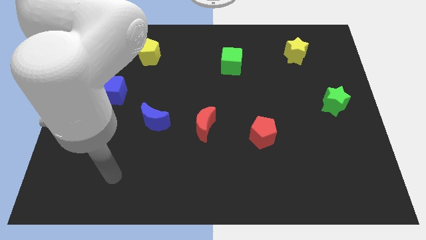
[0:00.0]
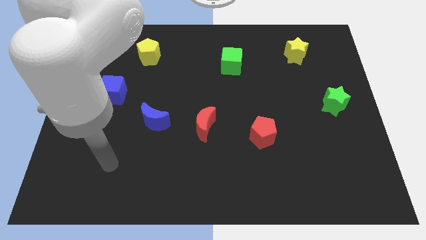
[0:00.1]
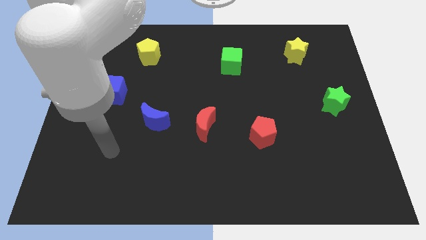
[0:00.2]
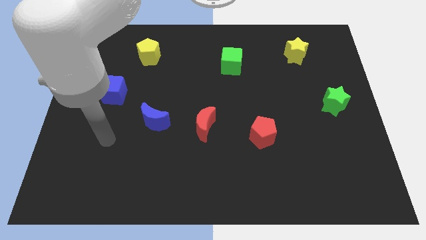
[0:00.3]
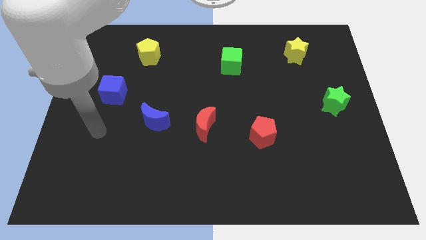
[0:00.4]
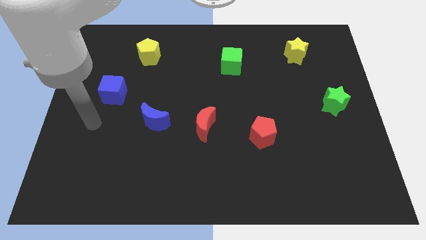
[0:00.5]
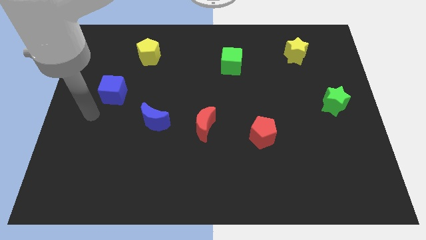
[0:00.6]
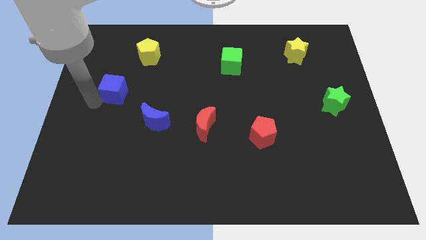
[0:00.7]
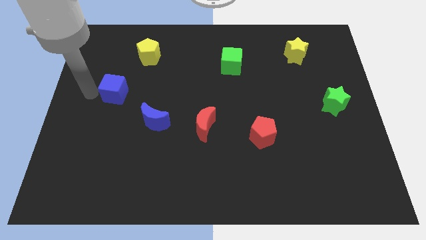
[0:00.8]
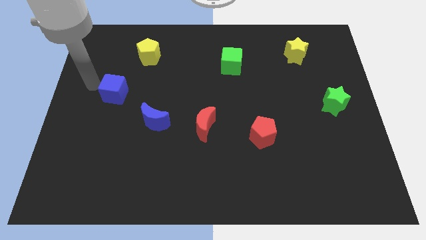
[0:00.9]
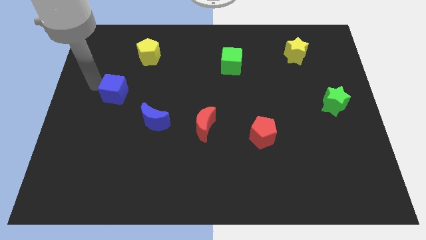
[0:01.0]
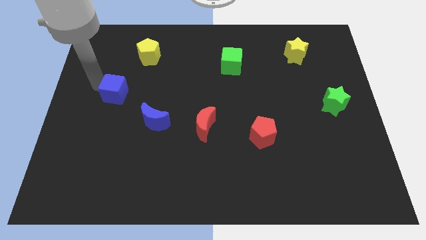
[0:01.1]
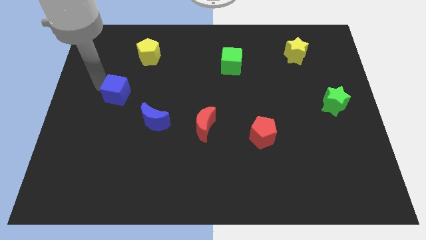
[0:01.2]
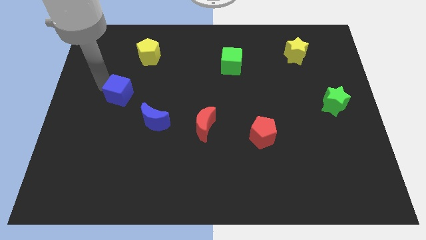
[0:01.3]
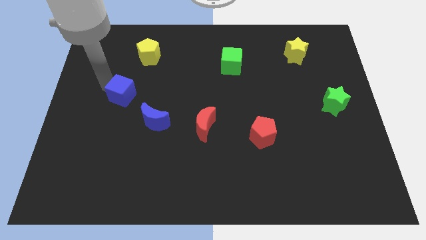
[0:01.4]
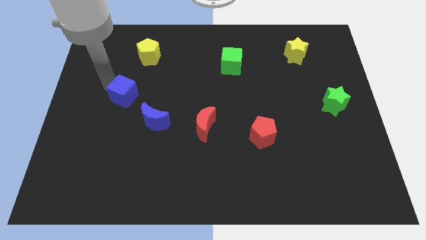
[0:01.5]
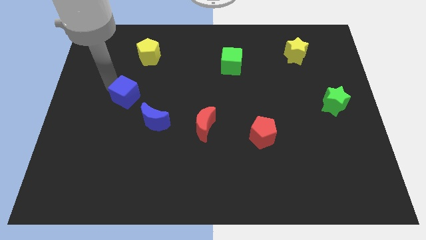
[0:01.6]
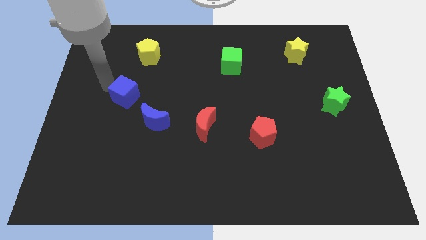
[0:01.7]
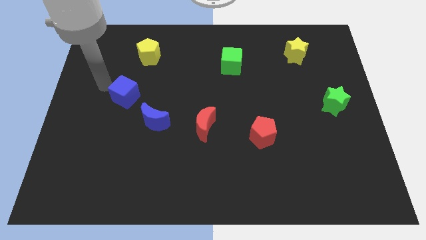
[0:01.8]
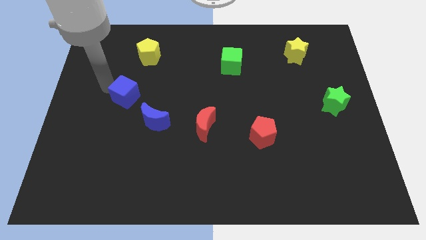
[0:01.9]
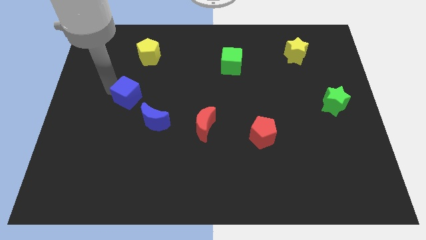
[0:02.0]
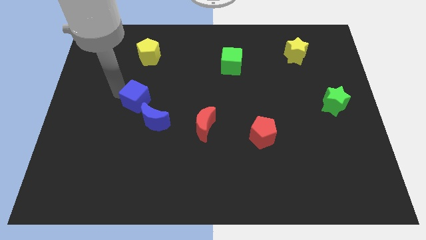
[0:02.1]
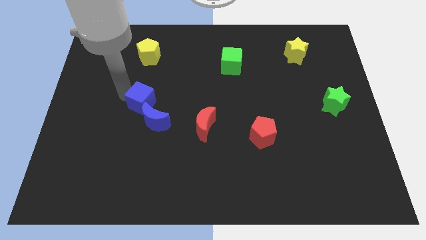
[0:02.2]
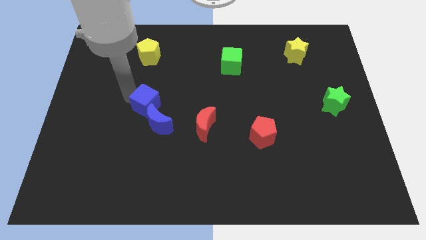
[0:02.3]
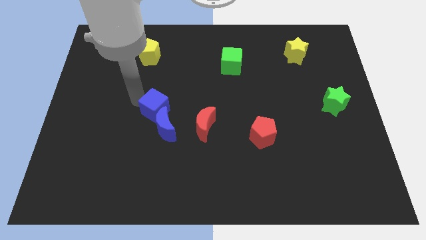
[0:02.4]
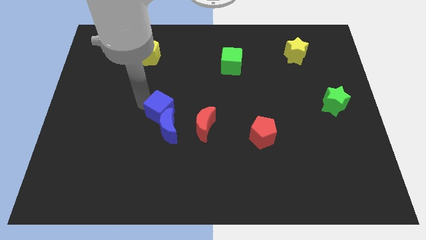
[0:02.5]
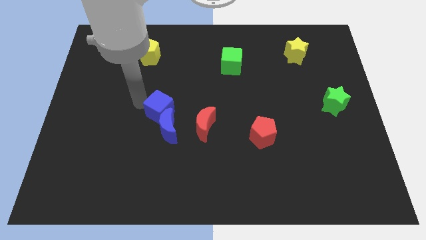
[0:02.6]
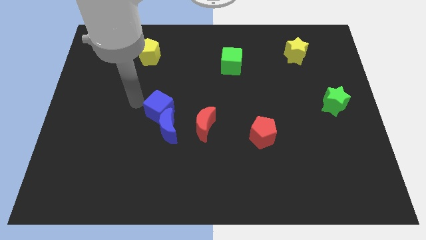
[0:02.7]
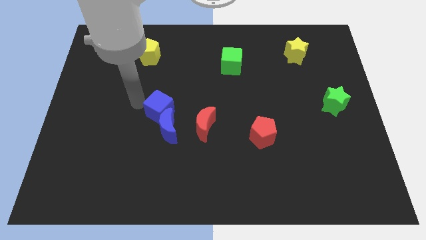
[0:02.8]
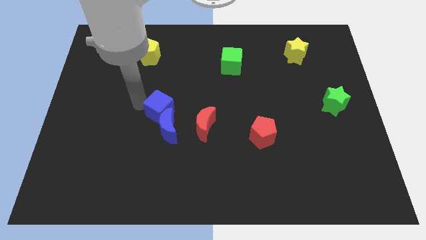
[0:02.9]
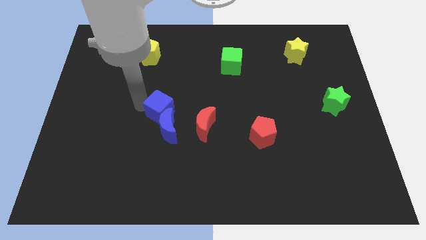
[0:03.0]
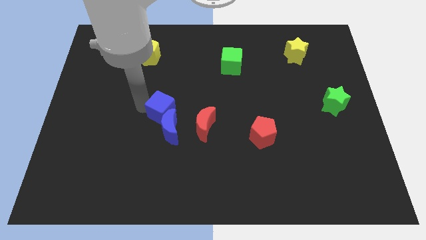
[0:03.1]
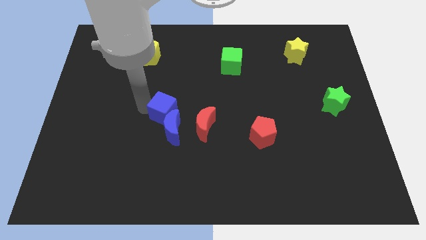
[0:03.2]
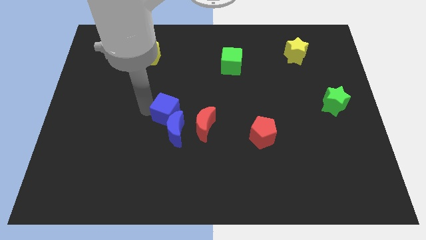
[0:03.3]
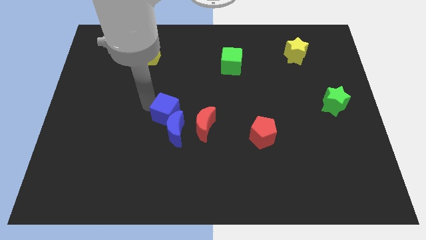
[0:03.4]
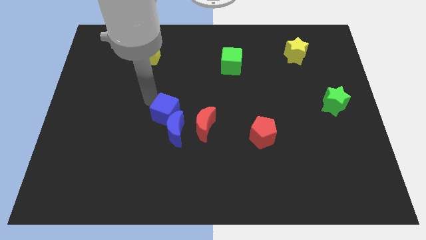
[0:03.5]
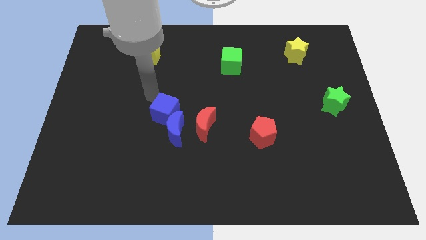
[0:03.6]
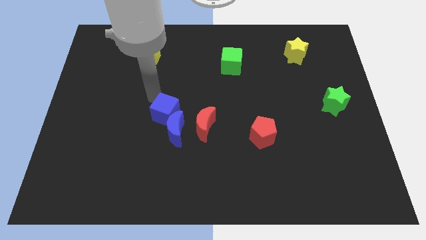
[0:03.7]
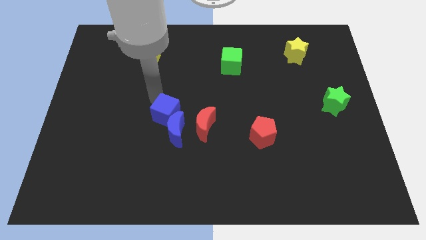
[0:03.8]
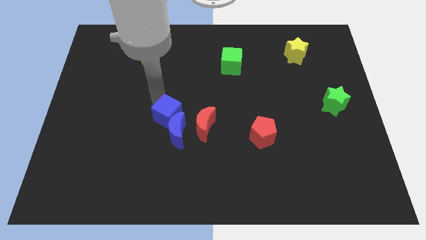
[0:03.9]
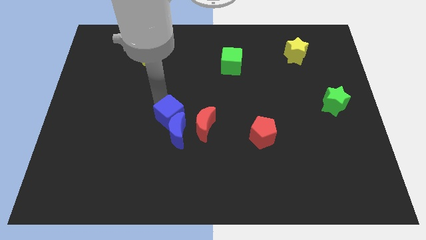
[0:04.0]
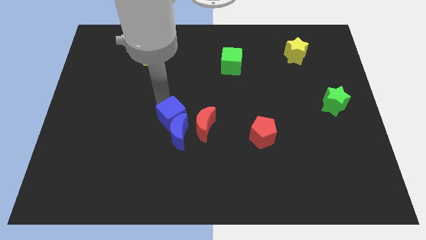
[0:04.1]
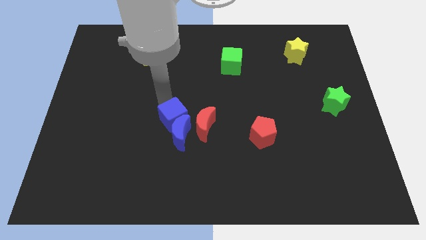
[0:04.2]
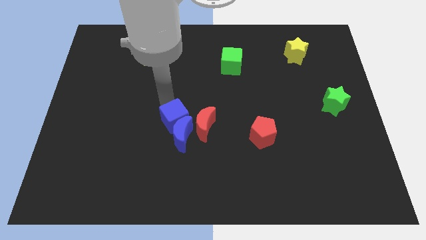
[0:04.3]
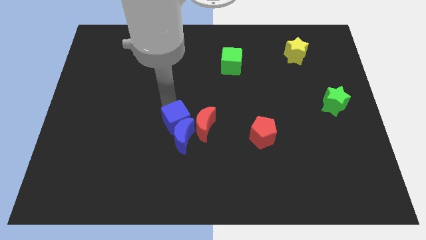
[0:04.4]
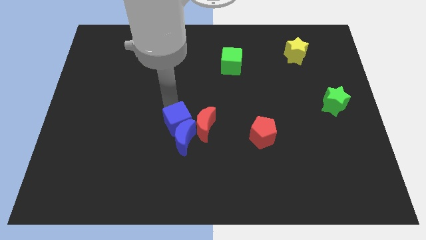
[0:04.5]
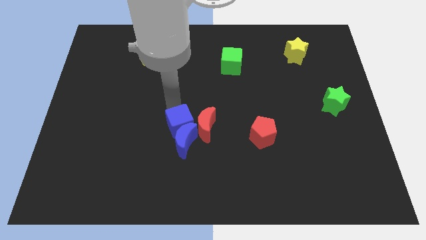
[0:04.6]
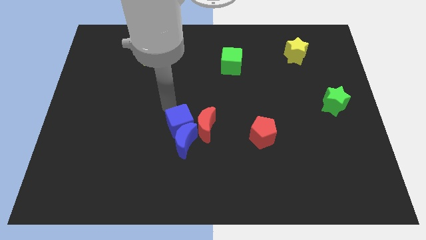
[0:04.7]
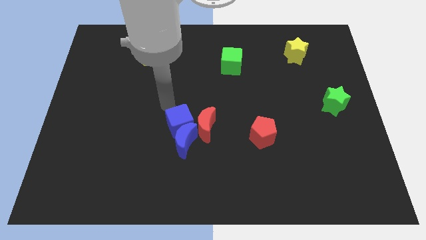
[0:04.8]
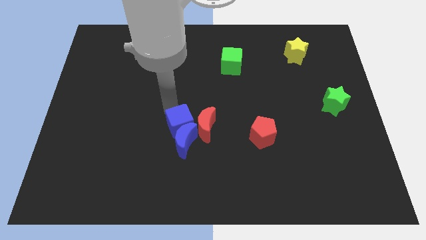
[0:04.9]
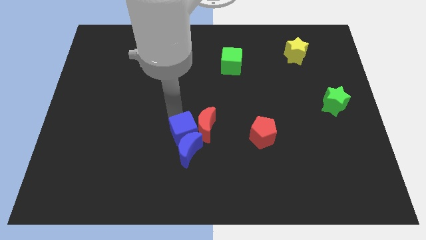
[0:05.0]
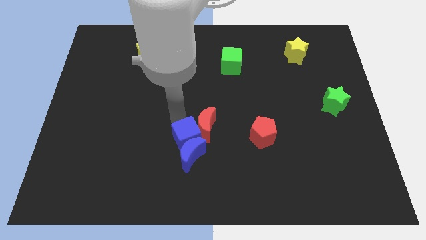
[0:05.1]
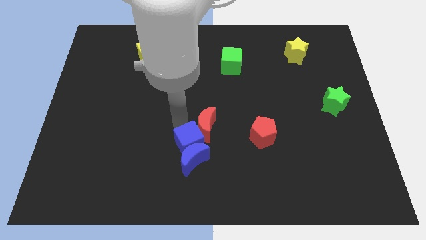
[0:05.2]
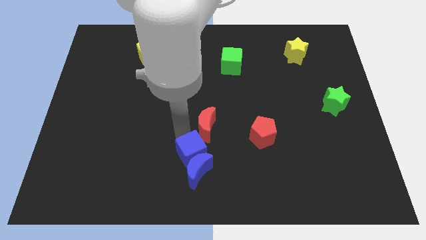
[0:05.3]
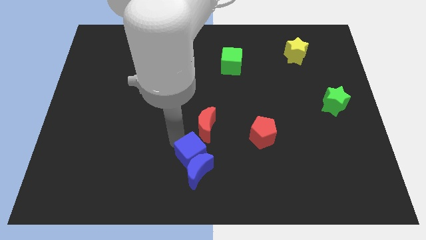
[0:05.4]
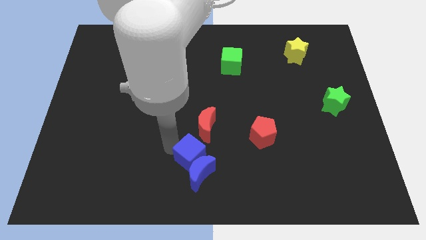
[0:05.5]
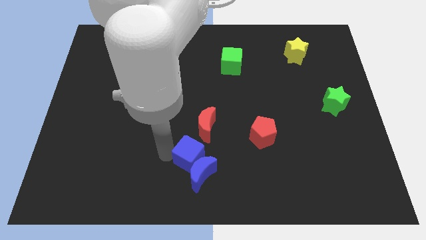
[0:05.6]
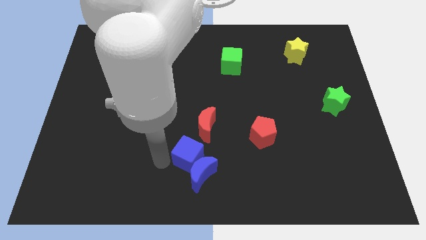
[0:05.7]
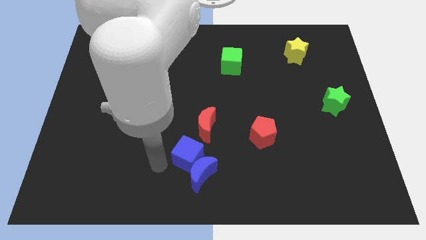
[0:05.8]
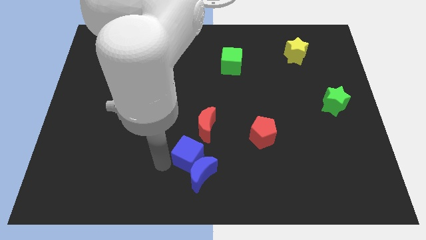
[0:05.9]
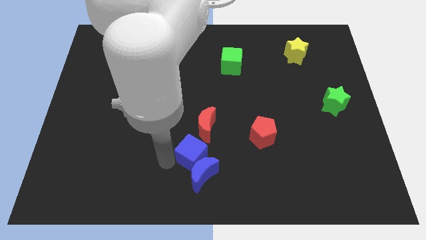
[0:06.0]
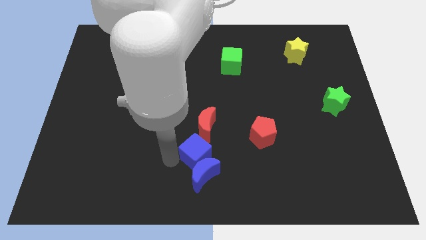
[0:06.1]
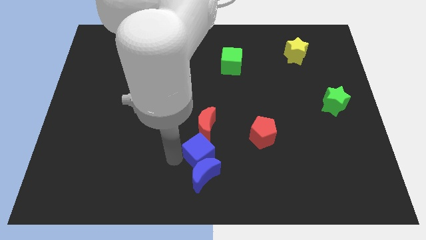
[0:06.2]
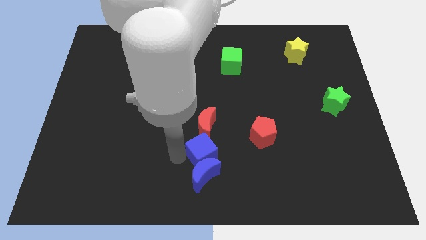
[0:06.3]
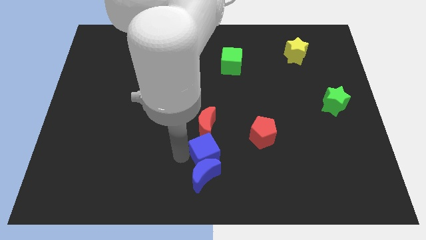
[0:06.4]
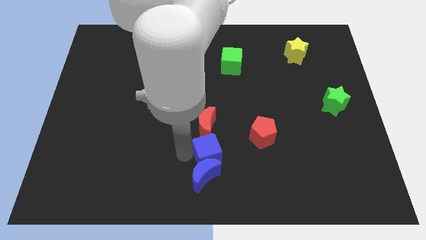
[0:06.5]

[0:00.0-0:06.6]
move the blue cube to the bottom right of the red moon

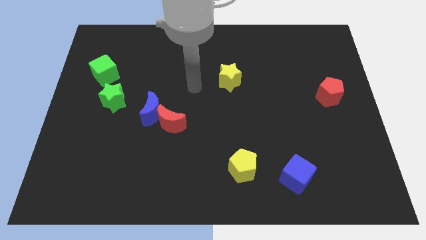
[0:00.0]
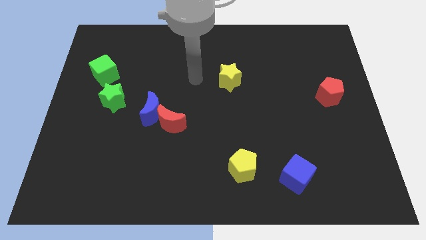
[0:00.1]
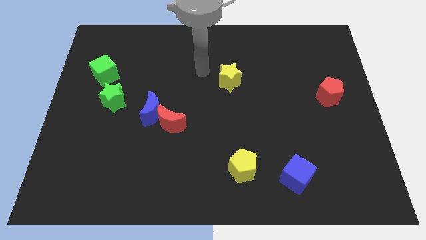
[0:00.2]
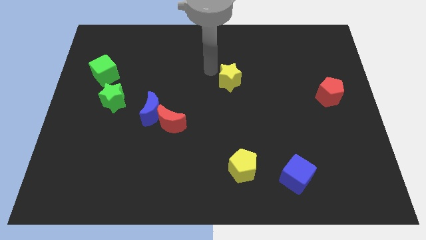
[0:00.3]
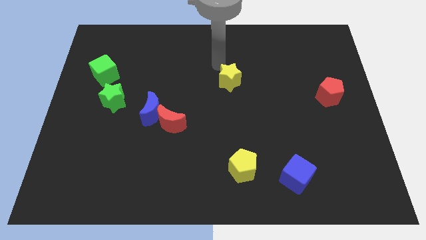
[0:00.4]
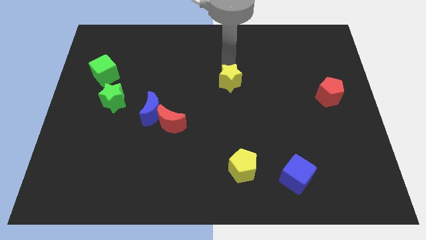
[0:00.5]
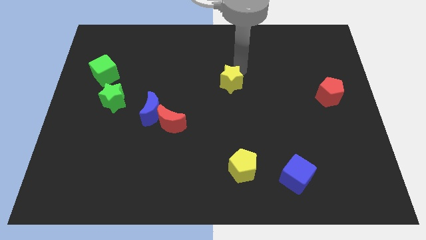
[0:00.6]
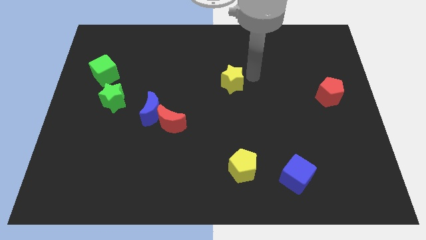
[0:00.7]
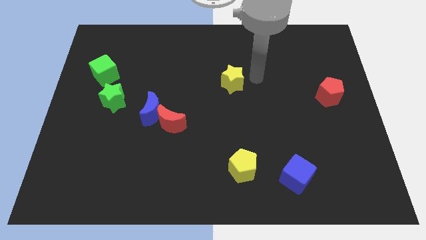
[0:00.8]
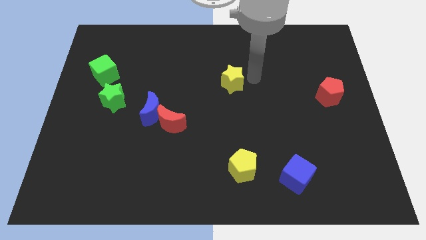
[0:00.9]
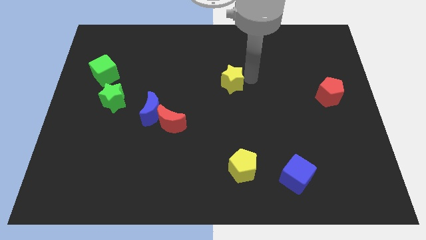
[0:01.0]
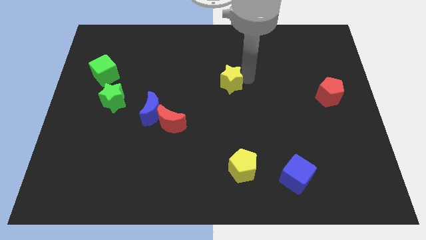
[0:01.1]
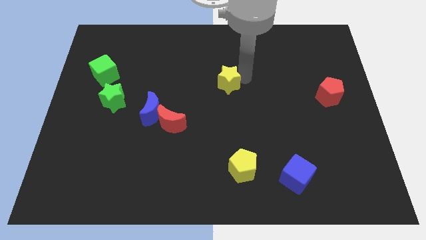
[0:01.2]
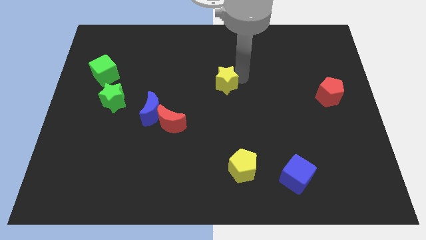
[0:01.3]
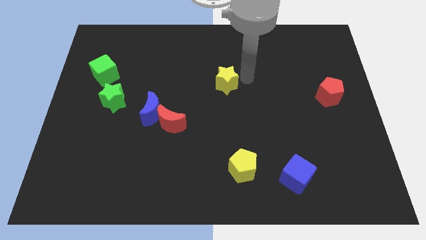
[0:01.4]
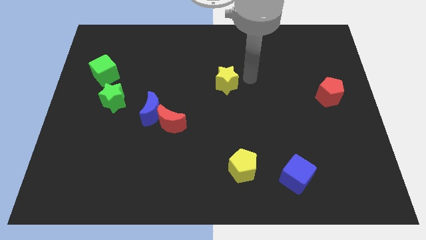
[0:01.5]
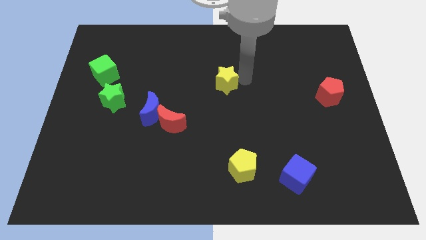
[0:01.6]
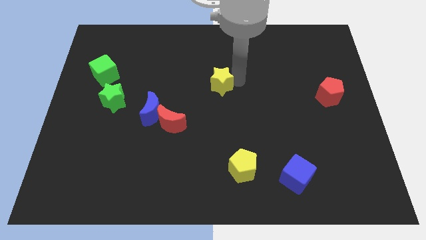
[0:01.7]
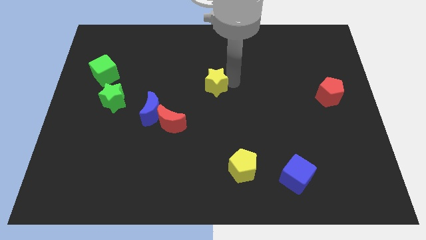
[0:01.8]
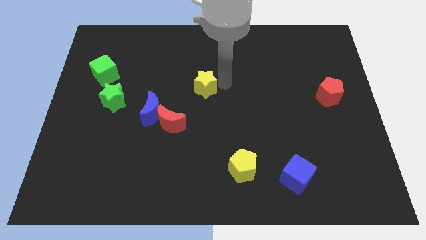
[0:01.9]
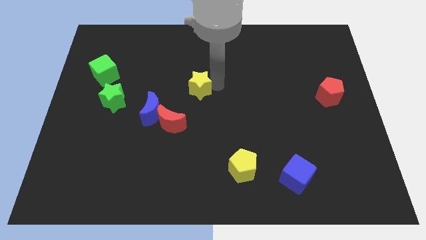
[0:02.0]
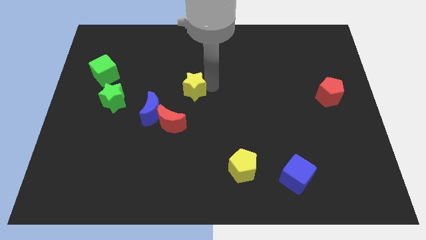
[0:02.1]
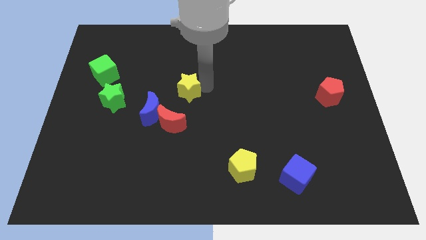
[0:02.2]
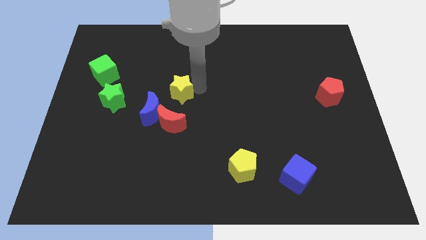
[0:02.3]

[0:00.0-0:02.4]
put the yellow star to the right of the green star
